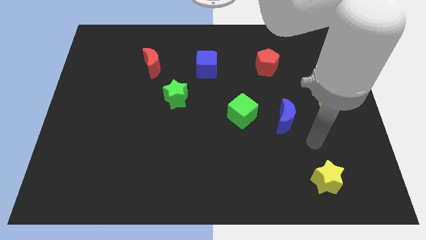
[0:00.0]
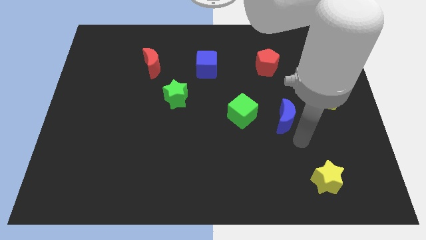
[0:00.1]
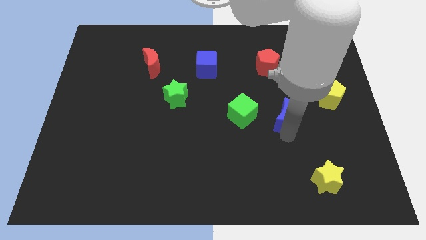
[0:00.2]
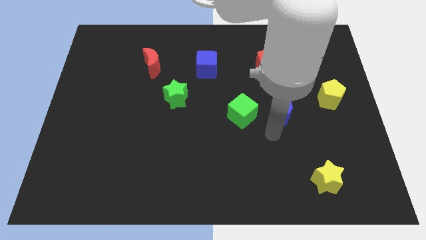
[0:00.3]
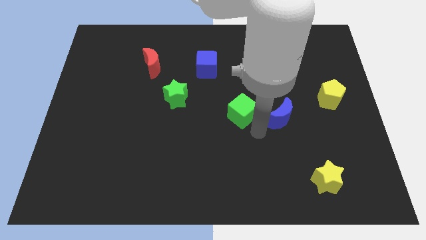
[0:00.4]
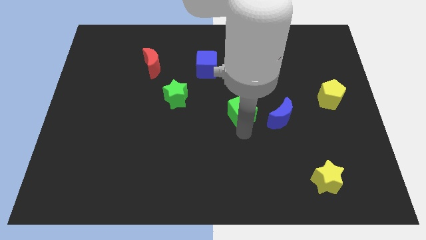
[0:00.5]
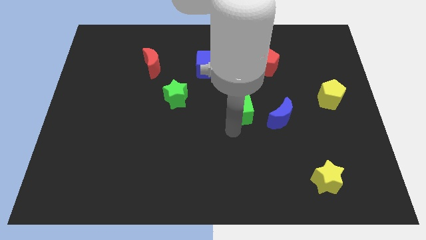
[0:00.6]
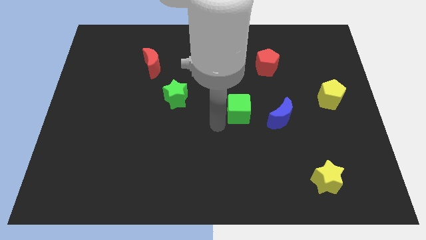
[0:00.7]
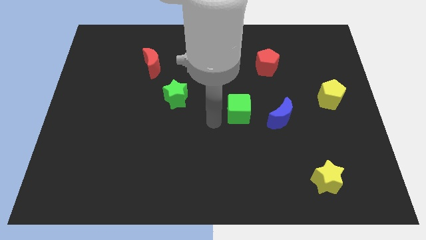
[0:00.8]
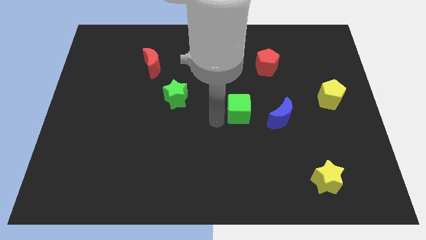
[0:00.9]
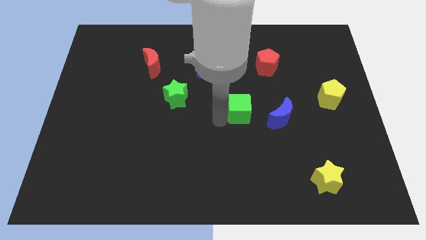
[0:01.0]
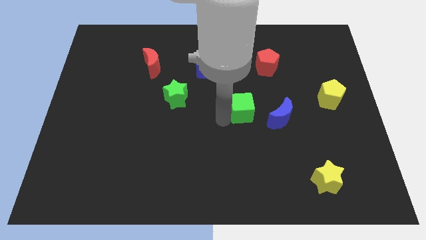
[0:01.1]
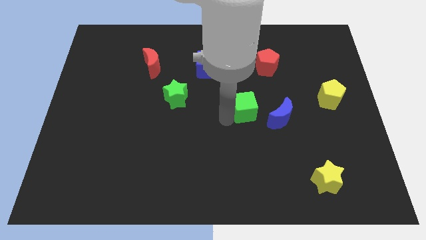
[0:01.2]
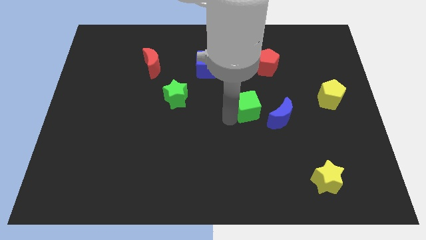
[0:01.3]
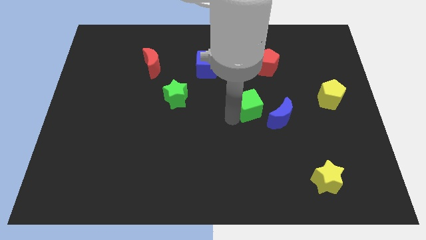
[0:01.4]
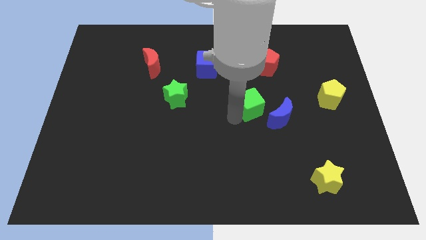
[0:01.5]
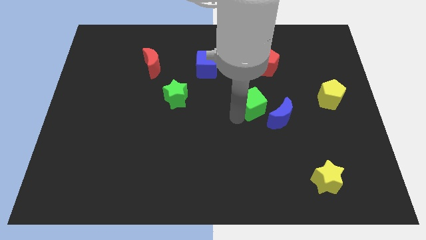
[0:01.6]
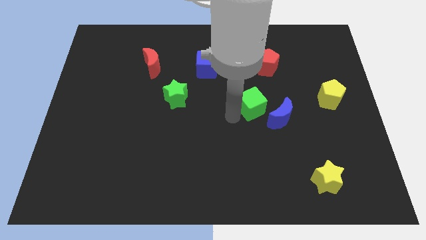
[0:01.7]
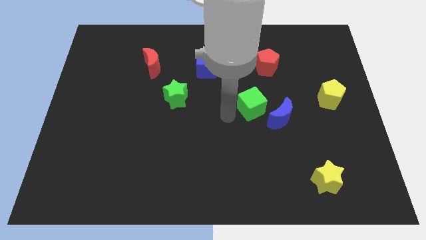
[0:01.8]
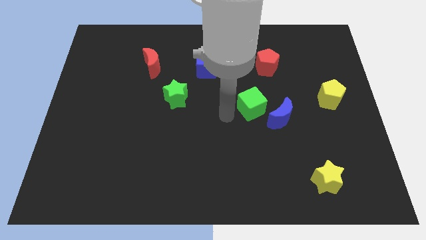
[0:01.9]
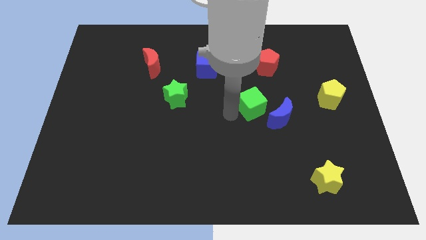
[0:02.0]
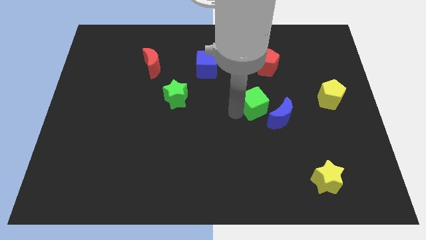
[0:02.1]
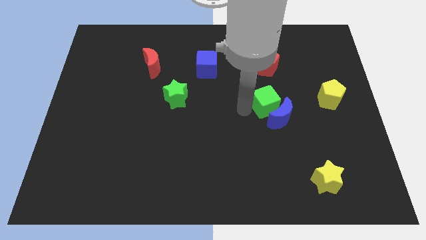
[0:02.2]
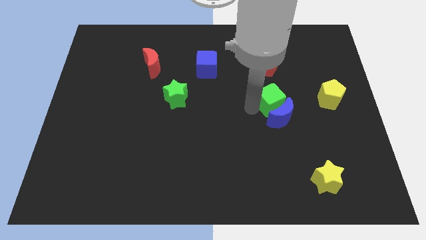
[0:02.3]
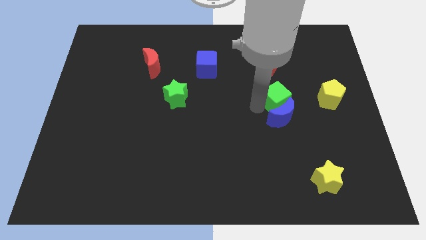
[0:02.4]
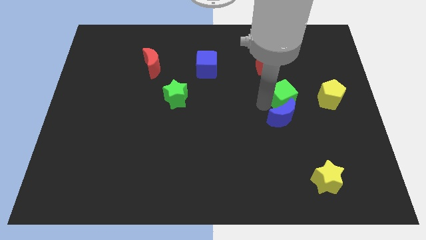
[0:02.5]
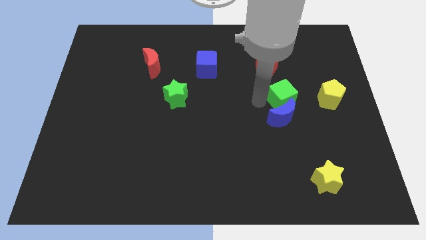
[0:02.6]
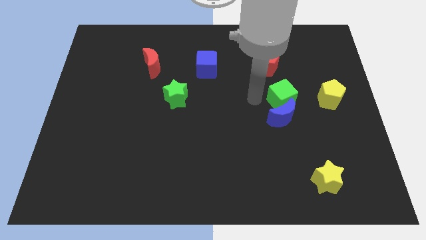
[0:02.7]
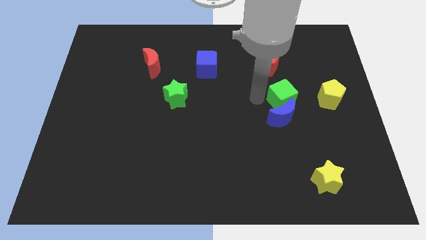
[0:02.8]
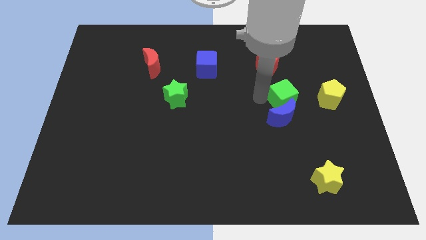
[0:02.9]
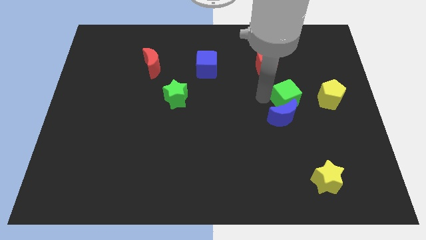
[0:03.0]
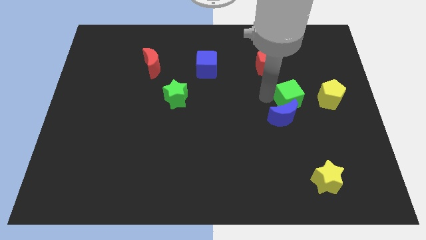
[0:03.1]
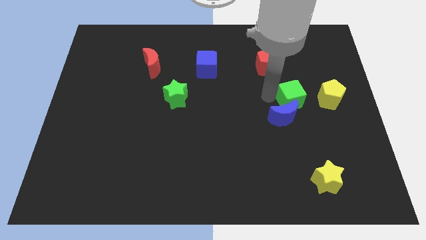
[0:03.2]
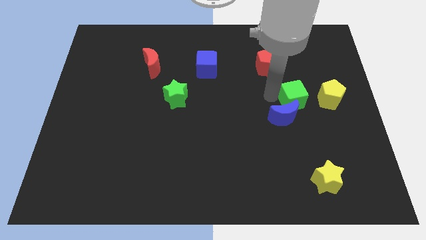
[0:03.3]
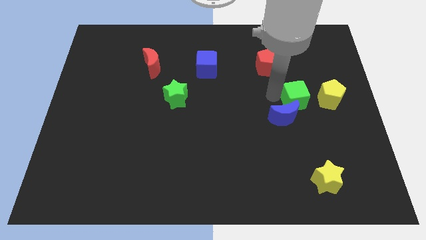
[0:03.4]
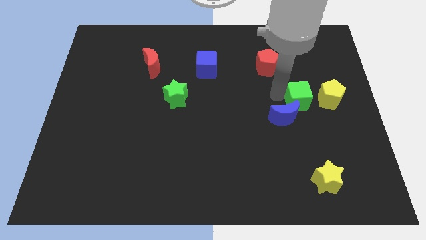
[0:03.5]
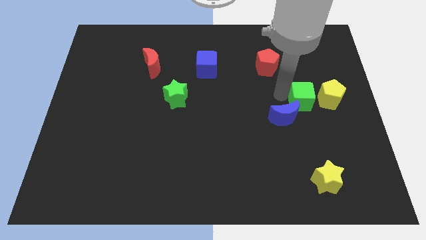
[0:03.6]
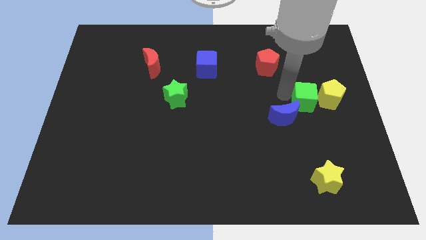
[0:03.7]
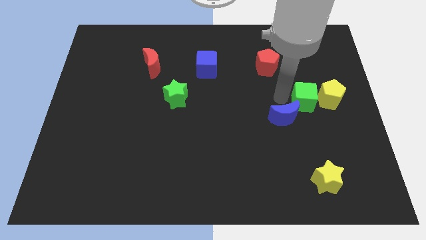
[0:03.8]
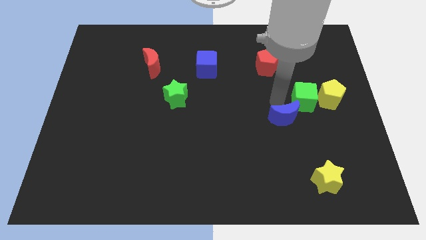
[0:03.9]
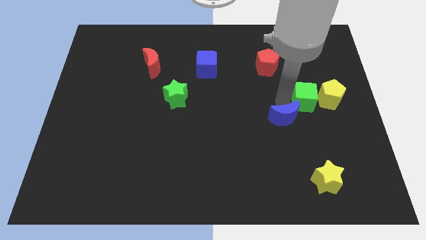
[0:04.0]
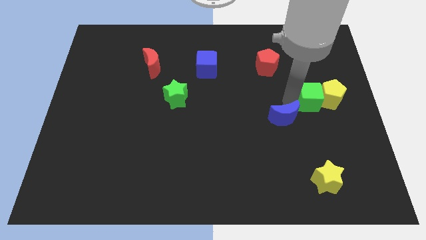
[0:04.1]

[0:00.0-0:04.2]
slide the green cube next to the yellow pentagon

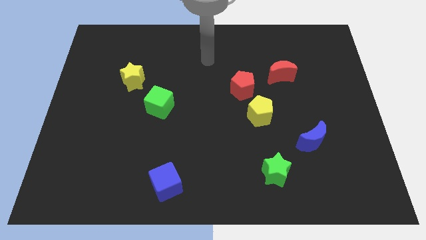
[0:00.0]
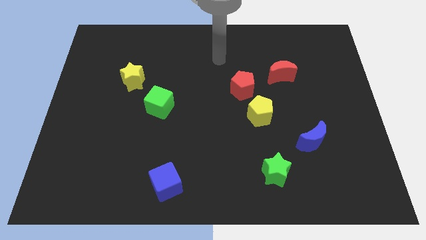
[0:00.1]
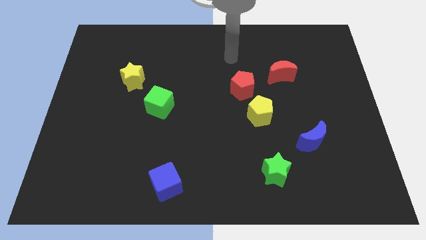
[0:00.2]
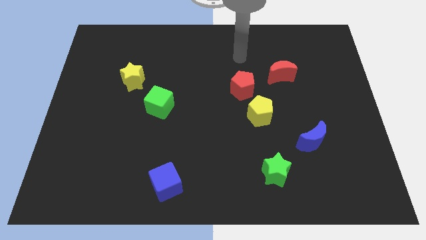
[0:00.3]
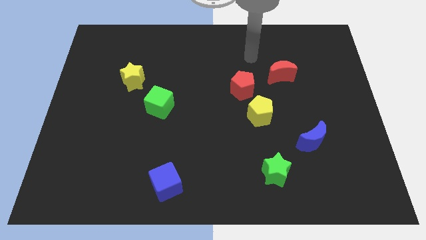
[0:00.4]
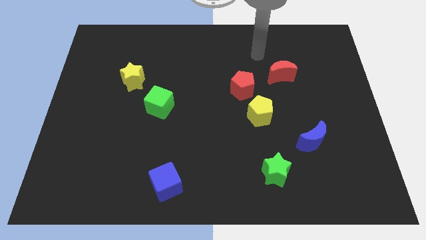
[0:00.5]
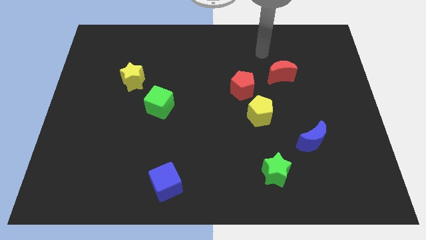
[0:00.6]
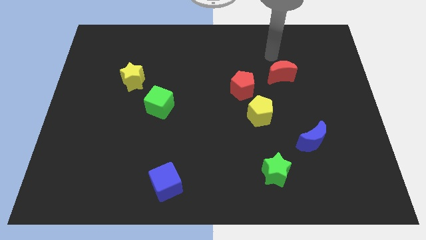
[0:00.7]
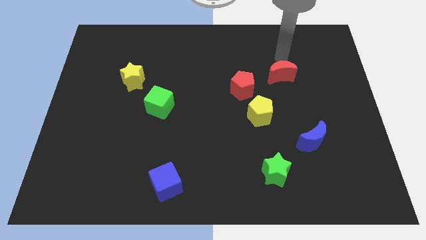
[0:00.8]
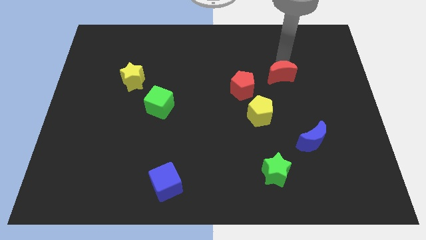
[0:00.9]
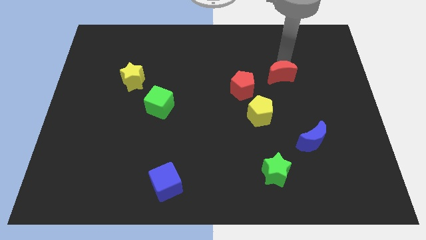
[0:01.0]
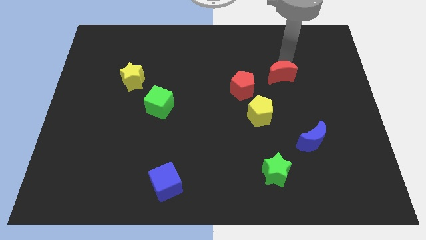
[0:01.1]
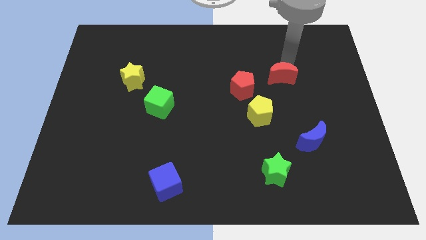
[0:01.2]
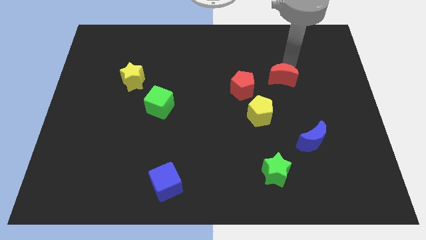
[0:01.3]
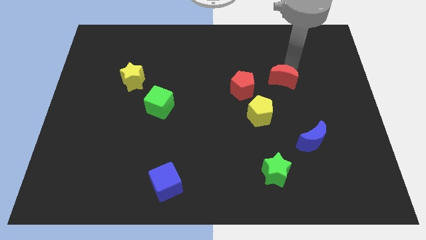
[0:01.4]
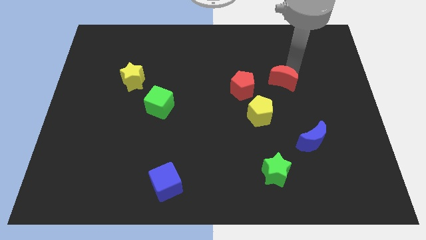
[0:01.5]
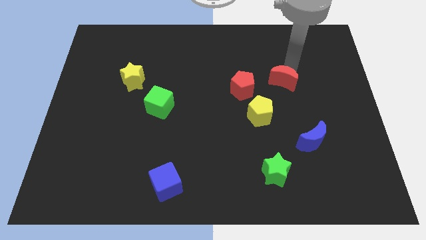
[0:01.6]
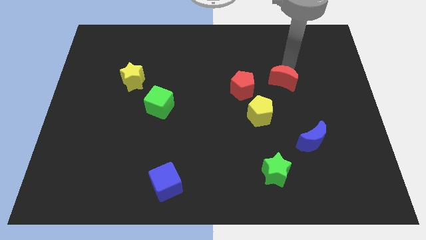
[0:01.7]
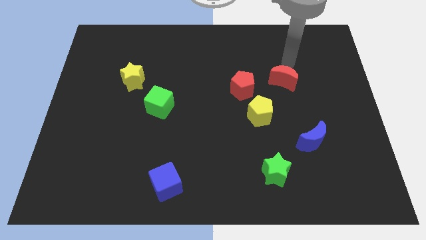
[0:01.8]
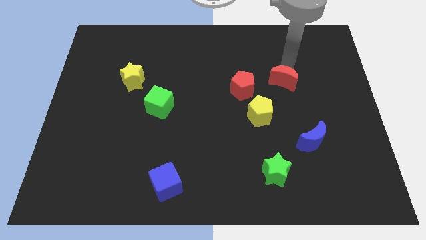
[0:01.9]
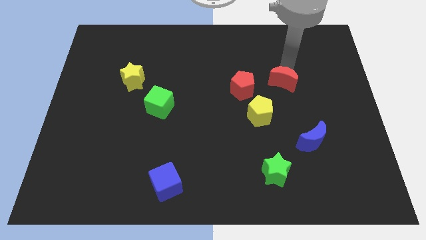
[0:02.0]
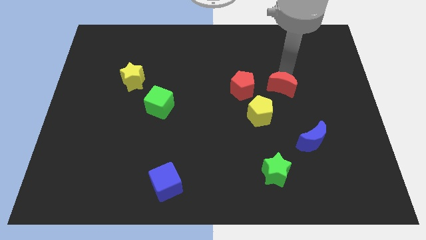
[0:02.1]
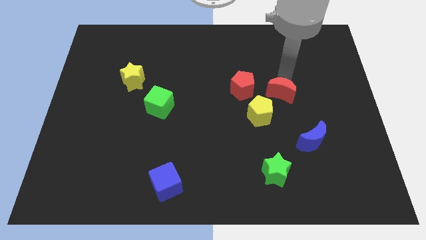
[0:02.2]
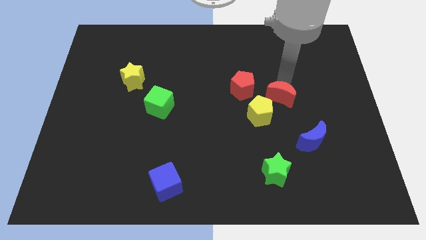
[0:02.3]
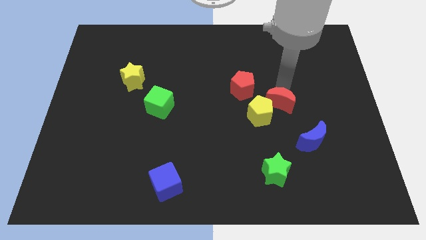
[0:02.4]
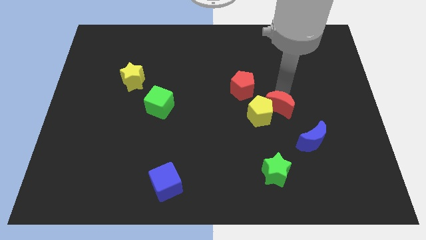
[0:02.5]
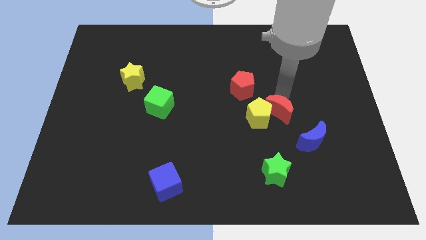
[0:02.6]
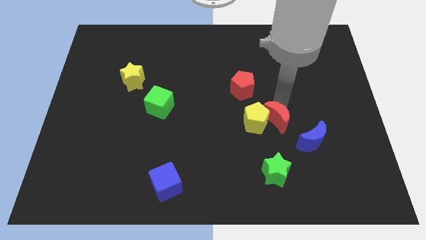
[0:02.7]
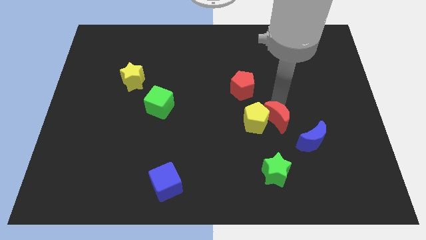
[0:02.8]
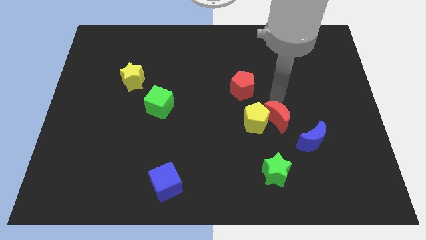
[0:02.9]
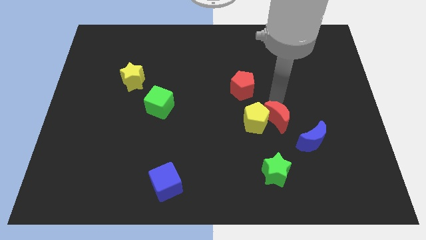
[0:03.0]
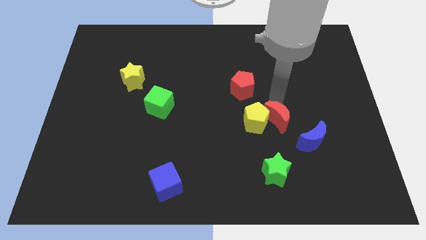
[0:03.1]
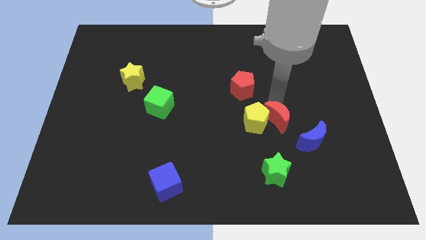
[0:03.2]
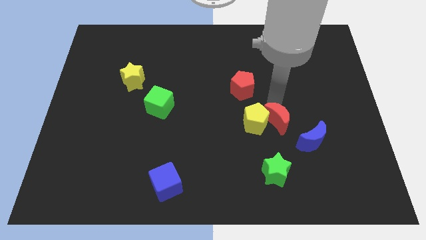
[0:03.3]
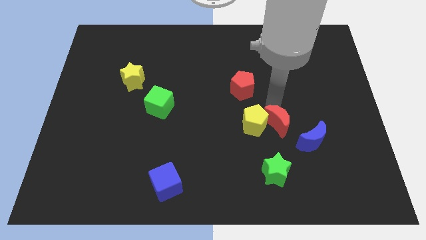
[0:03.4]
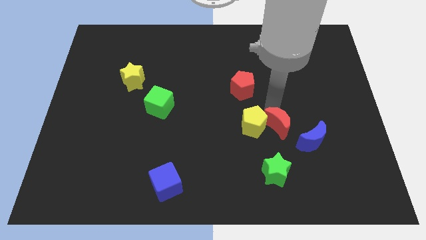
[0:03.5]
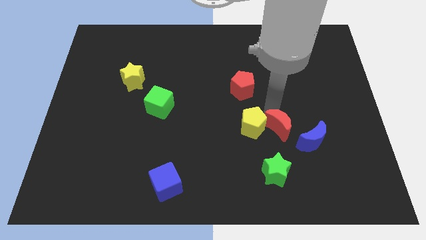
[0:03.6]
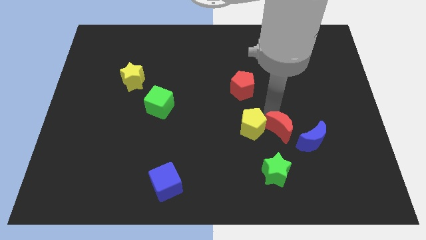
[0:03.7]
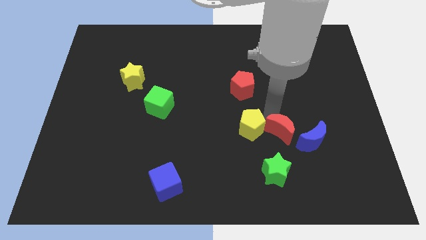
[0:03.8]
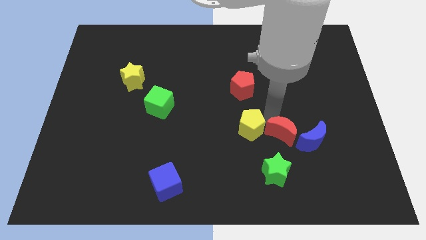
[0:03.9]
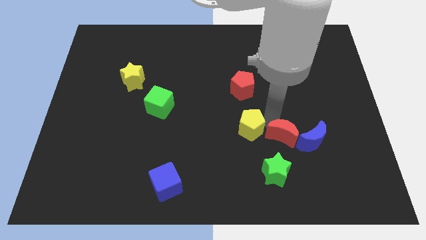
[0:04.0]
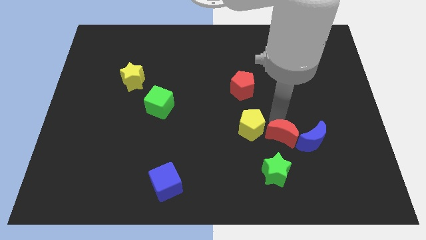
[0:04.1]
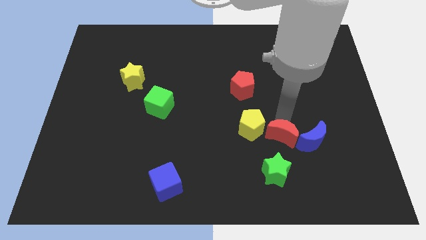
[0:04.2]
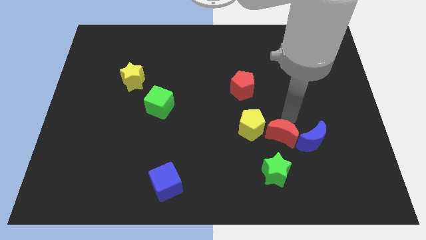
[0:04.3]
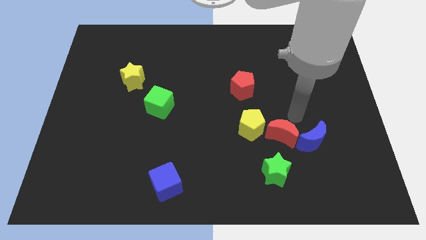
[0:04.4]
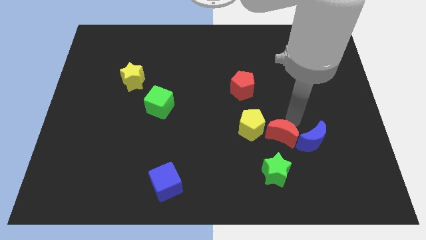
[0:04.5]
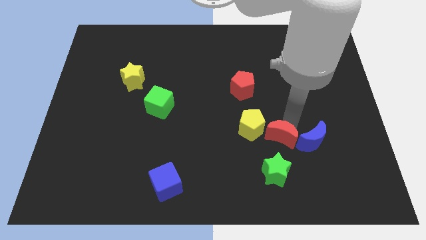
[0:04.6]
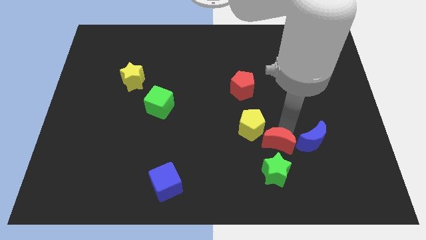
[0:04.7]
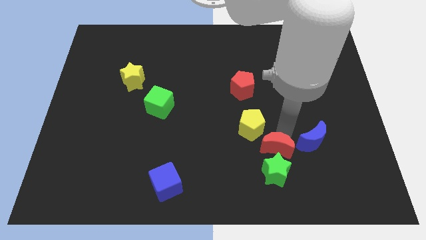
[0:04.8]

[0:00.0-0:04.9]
push the red moon close to the green star
